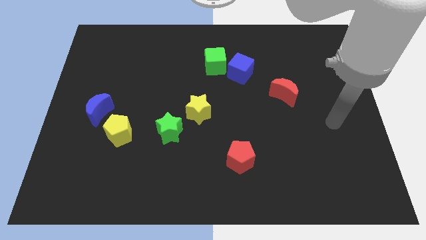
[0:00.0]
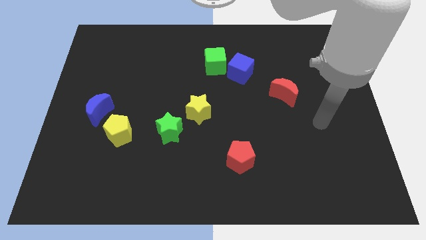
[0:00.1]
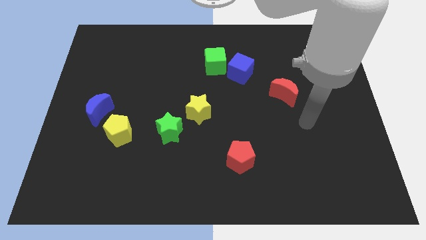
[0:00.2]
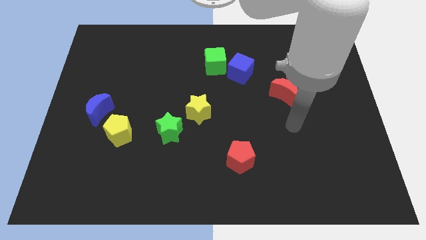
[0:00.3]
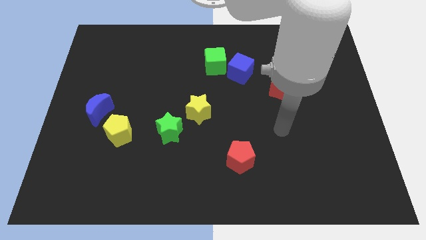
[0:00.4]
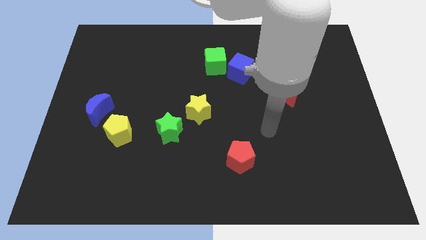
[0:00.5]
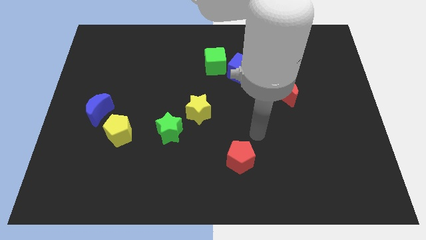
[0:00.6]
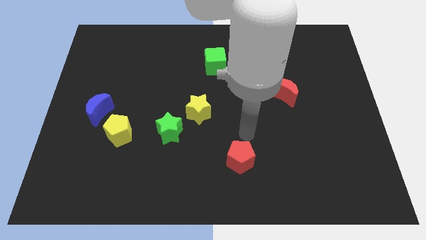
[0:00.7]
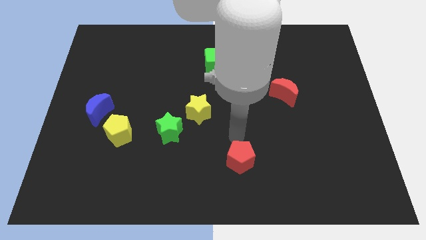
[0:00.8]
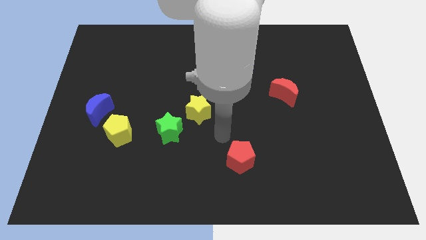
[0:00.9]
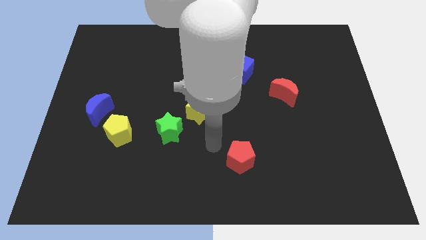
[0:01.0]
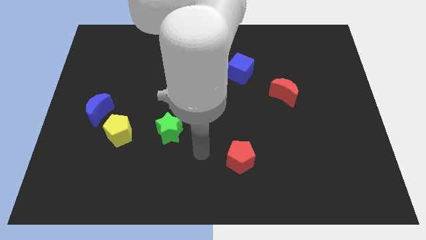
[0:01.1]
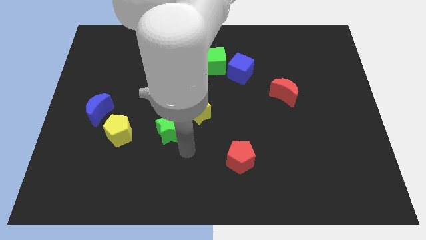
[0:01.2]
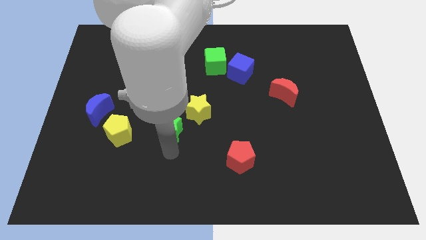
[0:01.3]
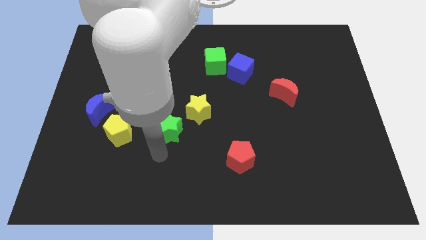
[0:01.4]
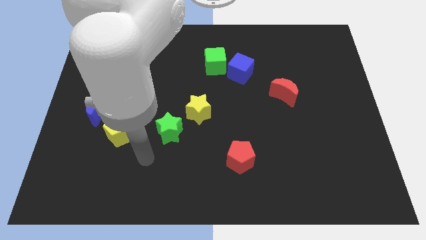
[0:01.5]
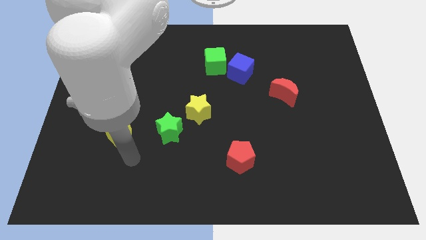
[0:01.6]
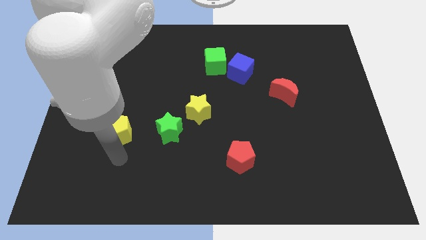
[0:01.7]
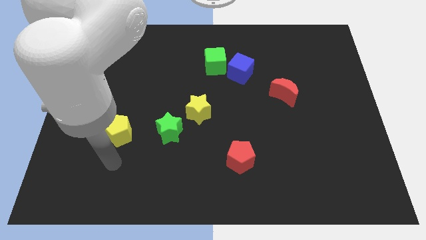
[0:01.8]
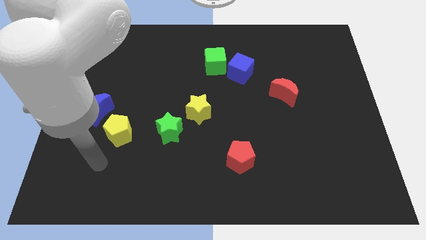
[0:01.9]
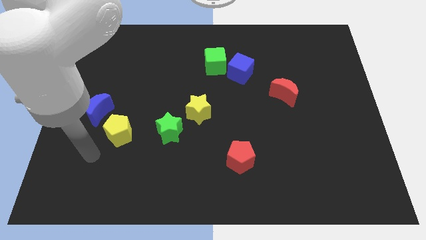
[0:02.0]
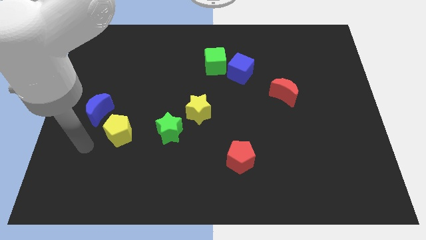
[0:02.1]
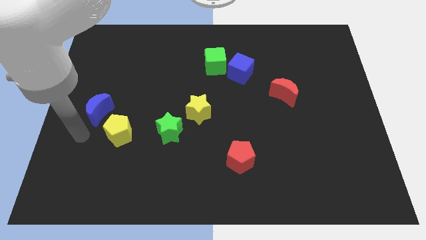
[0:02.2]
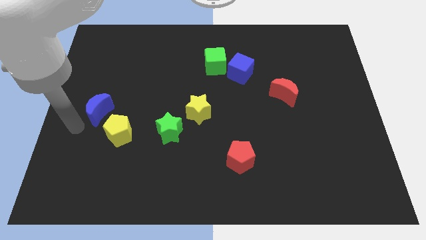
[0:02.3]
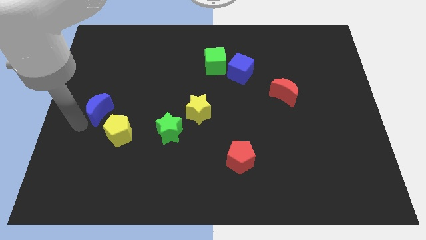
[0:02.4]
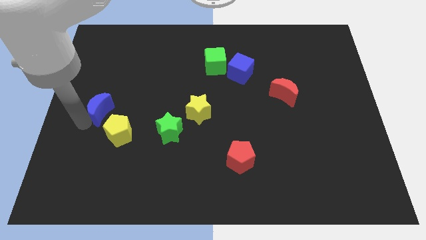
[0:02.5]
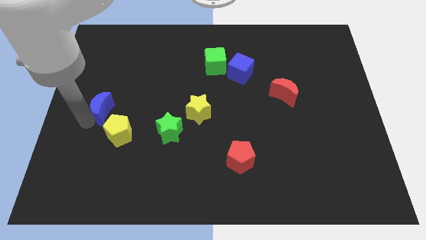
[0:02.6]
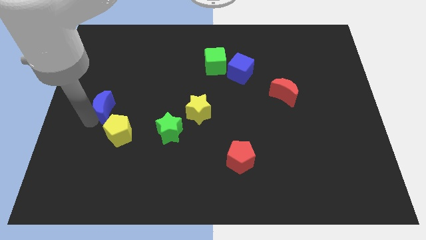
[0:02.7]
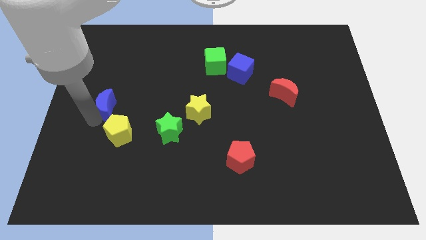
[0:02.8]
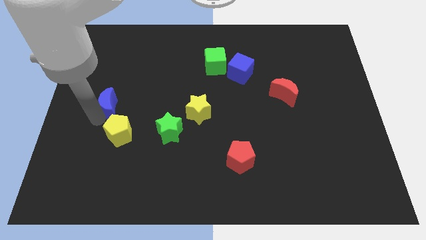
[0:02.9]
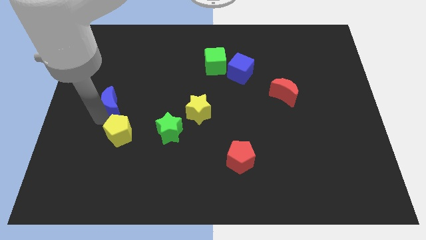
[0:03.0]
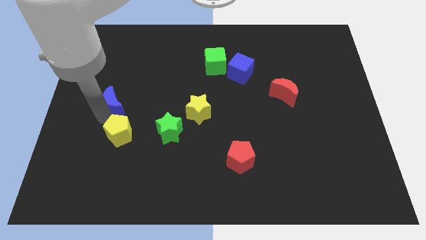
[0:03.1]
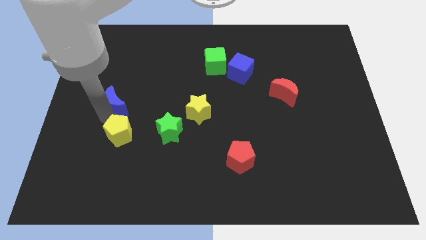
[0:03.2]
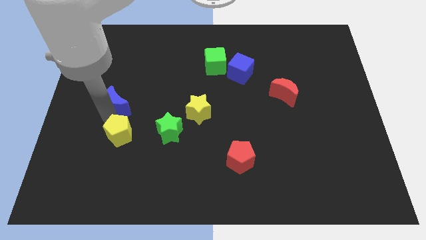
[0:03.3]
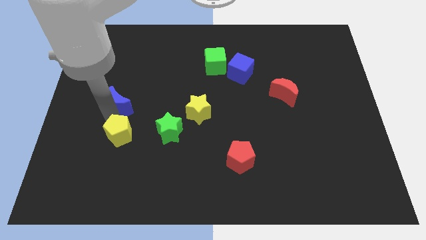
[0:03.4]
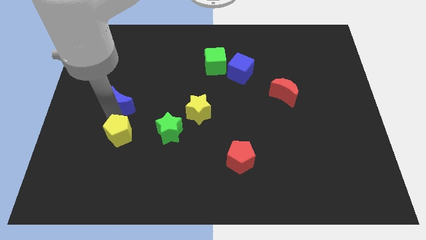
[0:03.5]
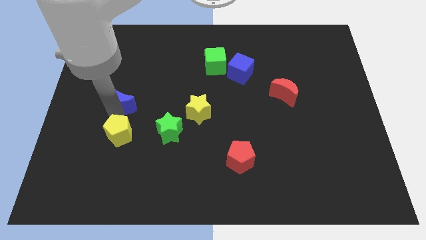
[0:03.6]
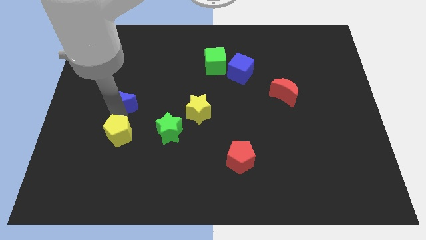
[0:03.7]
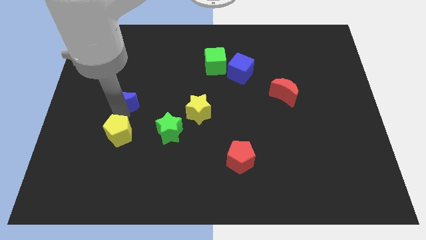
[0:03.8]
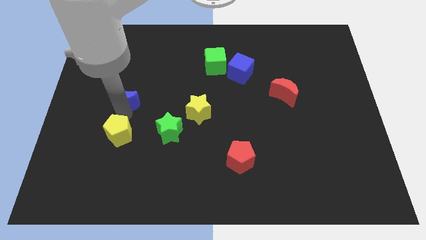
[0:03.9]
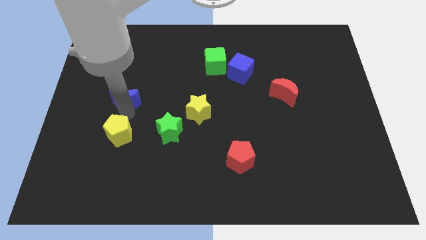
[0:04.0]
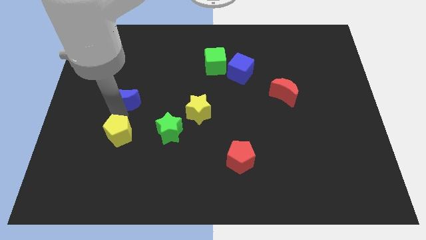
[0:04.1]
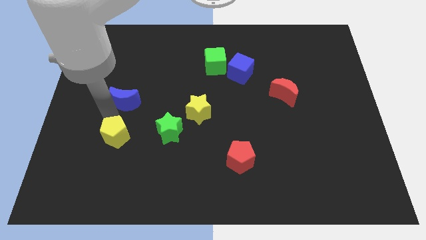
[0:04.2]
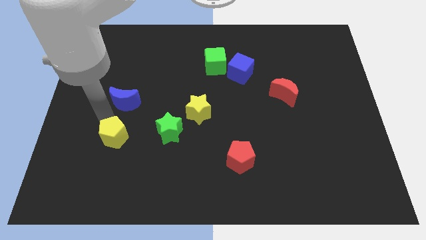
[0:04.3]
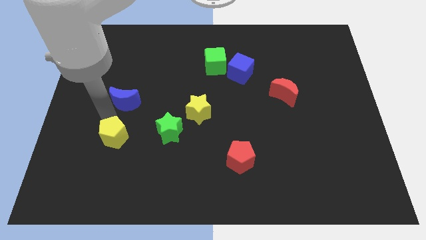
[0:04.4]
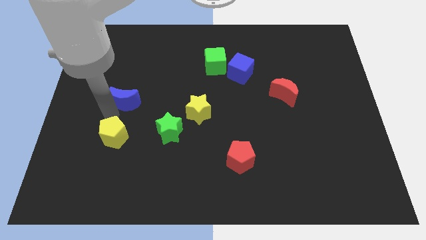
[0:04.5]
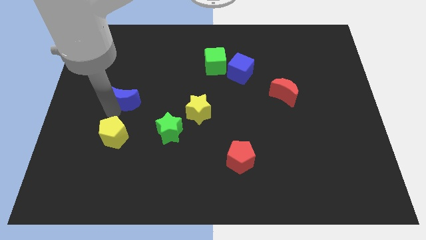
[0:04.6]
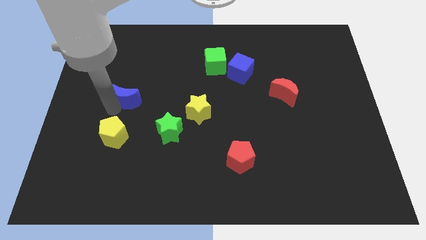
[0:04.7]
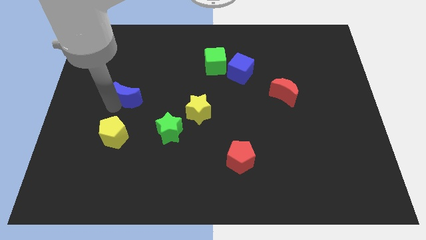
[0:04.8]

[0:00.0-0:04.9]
move the blue moon up and right a bit

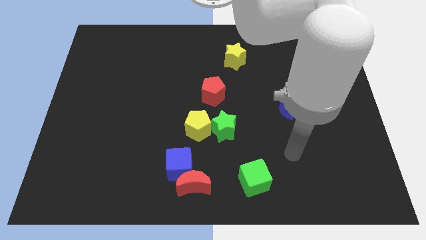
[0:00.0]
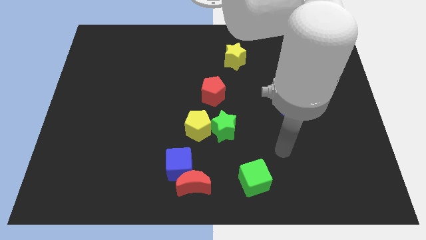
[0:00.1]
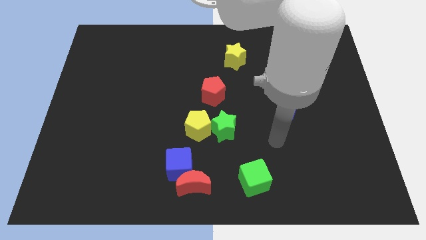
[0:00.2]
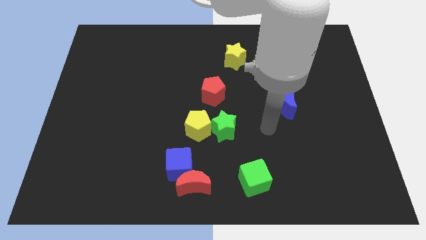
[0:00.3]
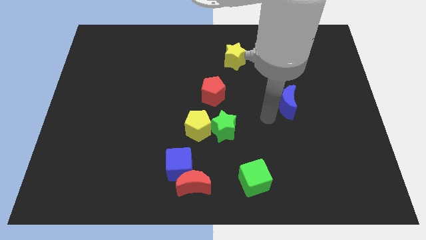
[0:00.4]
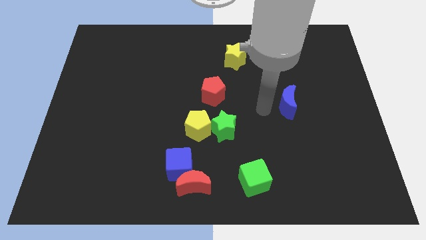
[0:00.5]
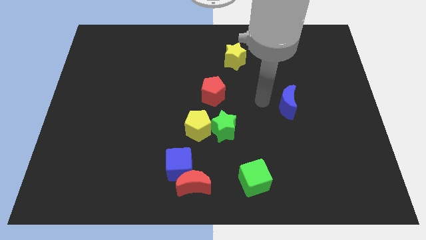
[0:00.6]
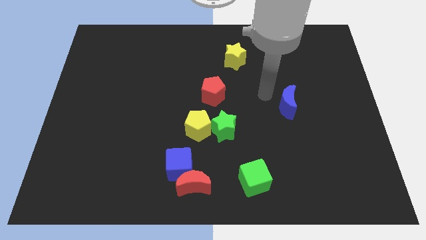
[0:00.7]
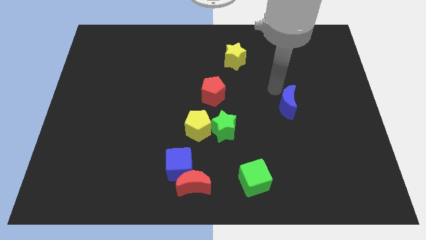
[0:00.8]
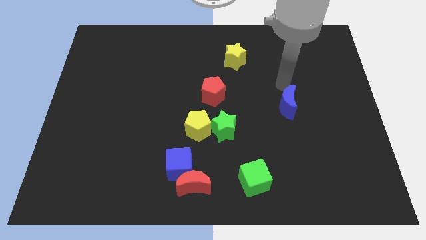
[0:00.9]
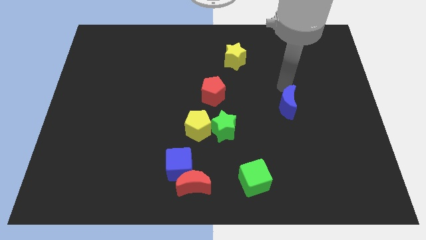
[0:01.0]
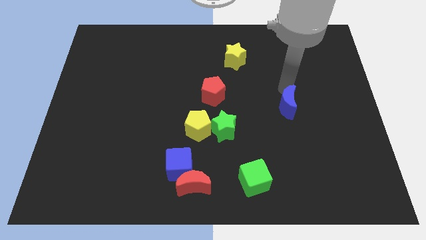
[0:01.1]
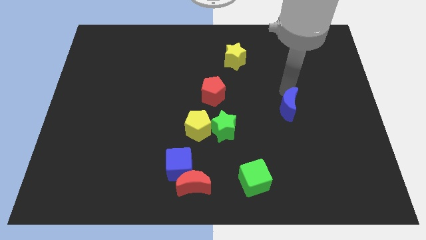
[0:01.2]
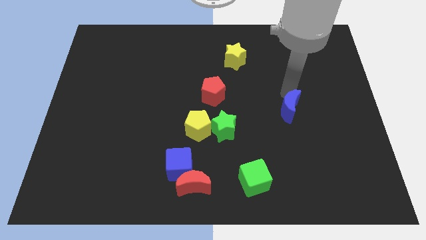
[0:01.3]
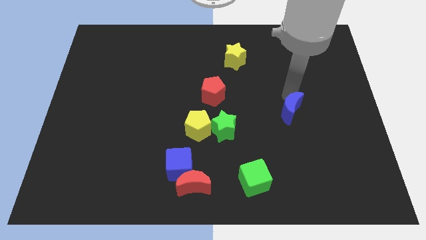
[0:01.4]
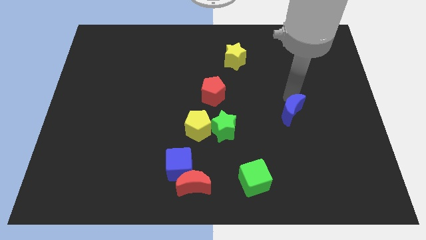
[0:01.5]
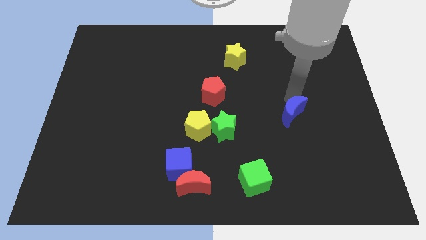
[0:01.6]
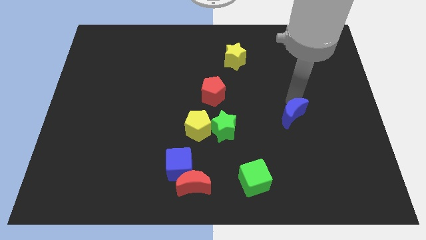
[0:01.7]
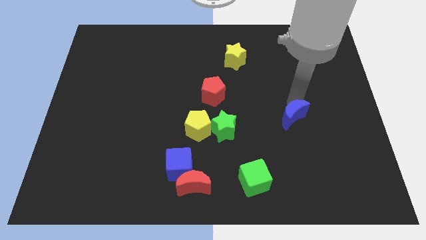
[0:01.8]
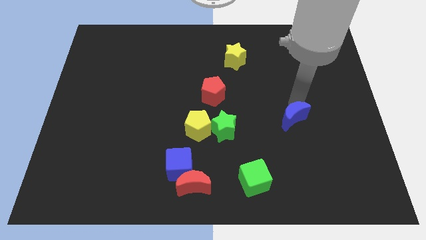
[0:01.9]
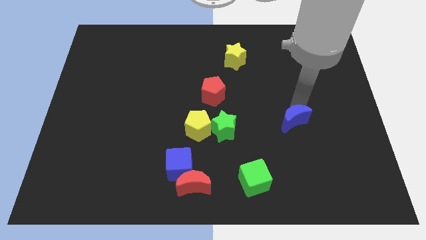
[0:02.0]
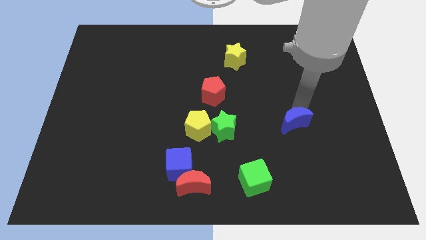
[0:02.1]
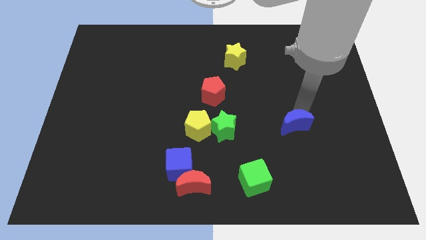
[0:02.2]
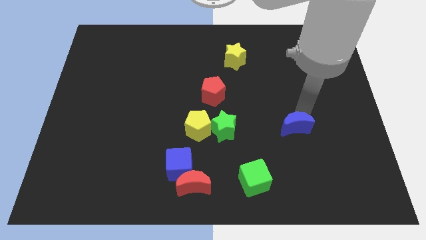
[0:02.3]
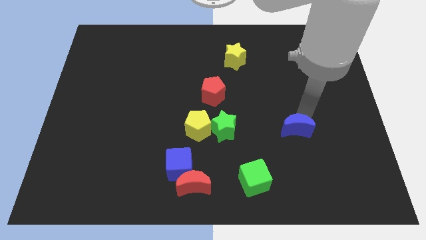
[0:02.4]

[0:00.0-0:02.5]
move the blue moon downwards a little

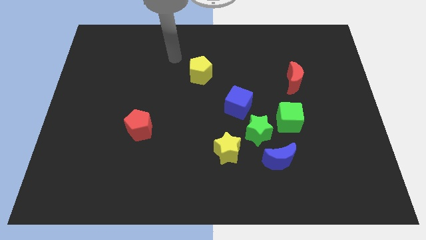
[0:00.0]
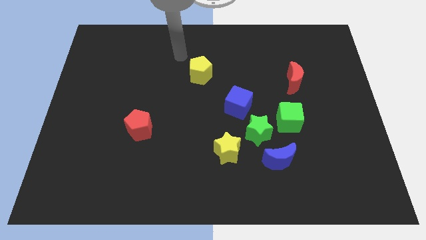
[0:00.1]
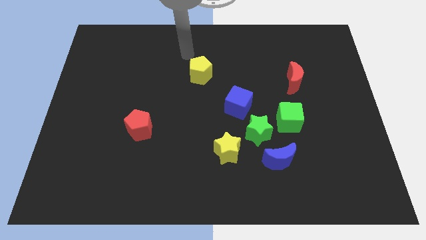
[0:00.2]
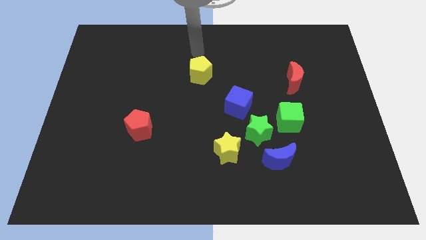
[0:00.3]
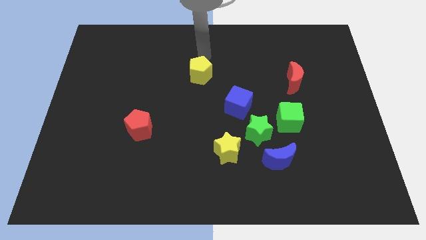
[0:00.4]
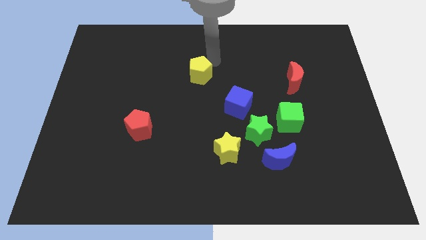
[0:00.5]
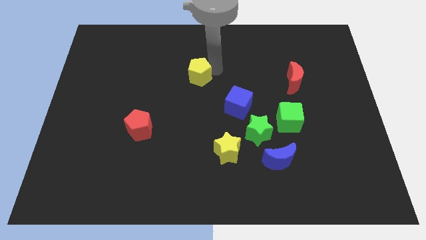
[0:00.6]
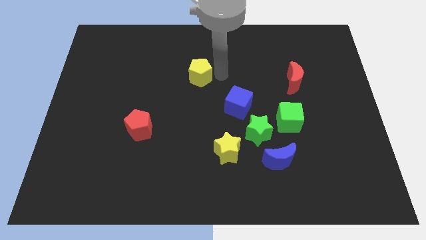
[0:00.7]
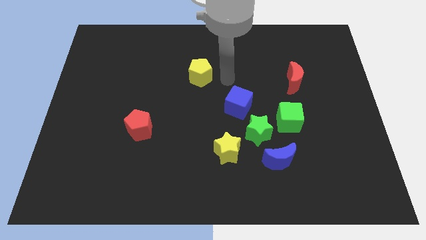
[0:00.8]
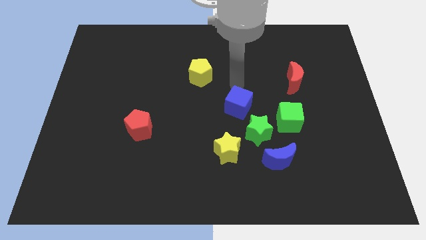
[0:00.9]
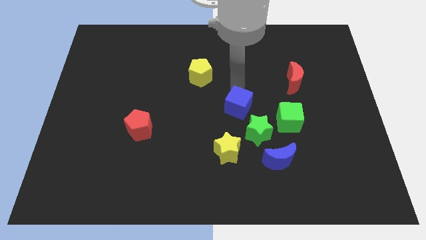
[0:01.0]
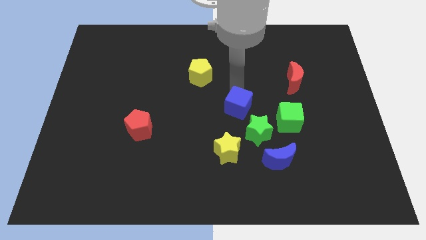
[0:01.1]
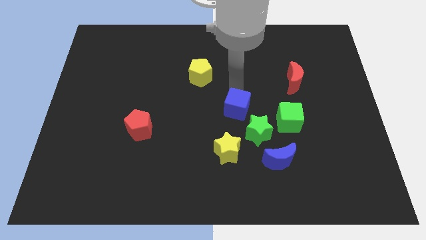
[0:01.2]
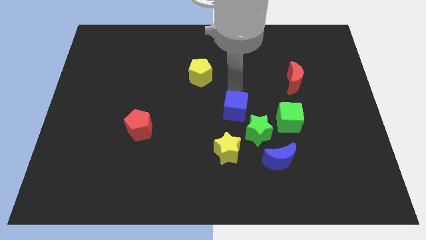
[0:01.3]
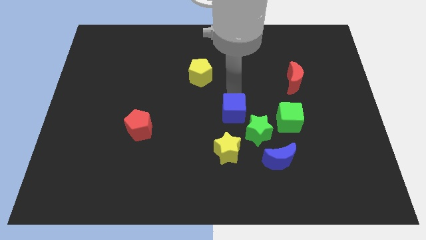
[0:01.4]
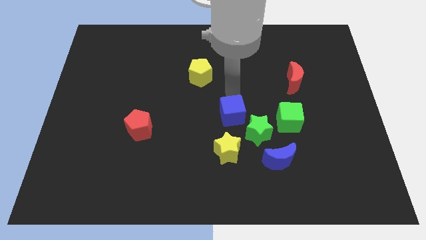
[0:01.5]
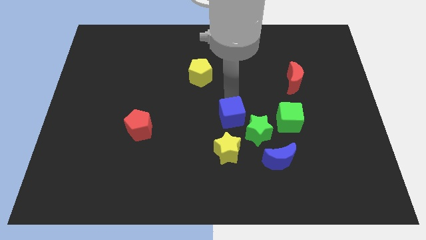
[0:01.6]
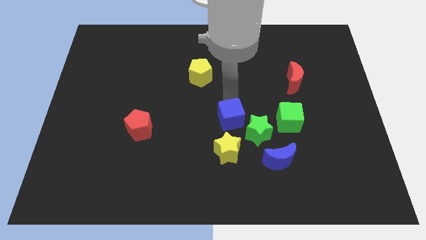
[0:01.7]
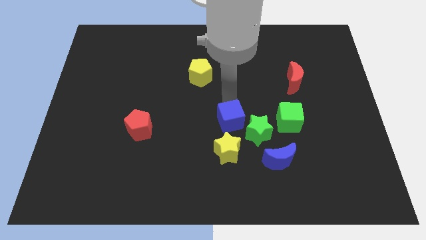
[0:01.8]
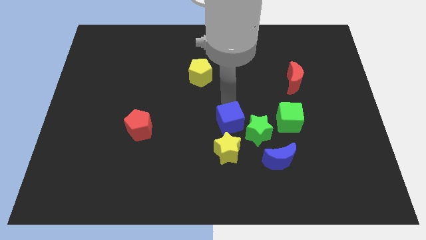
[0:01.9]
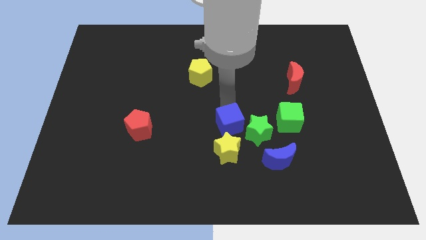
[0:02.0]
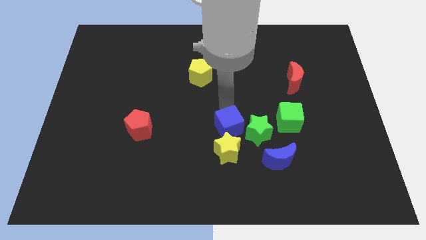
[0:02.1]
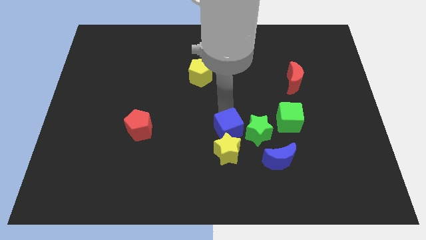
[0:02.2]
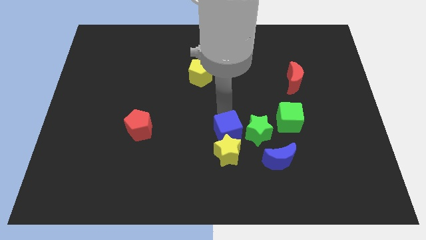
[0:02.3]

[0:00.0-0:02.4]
move the blue cube downwards a little
